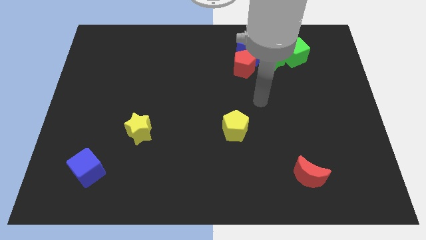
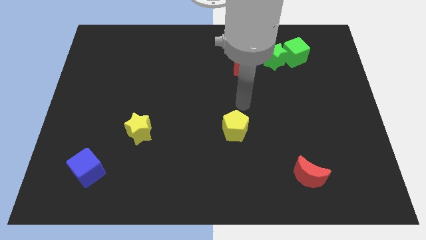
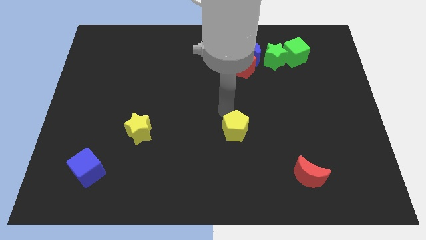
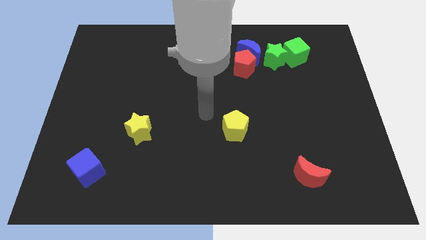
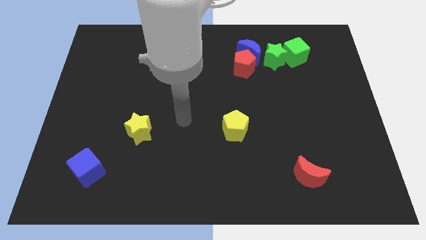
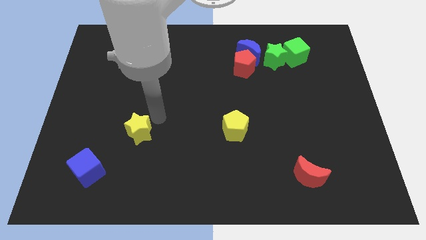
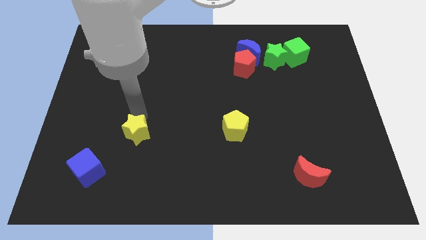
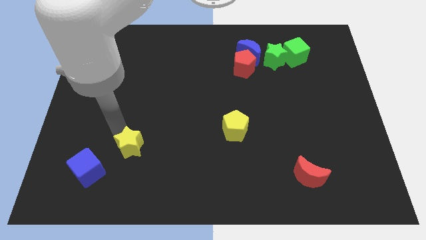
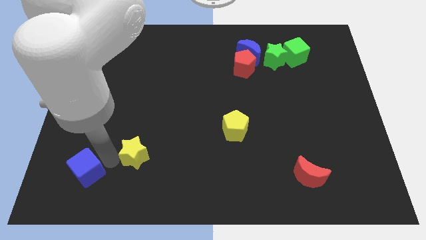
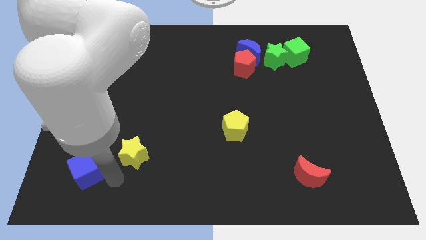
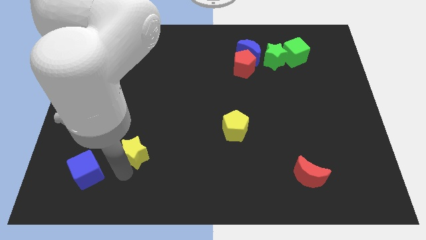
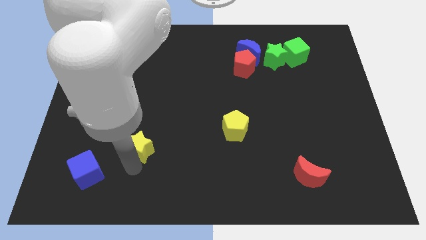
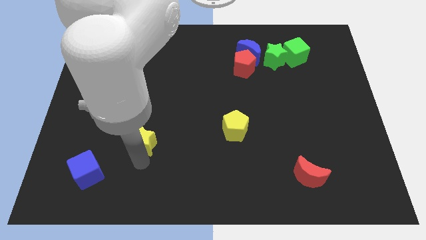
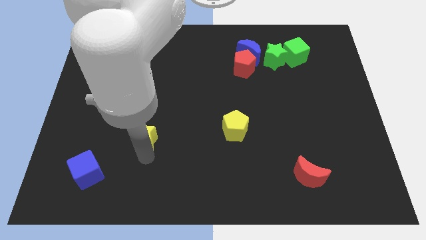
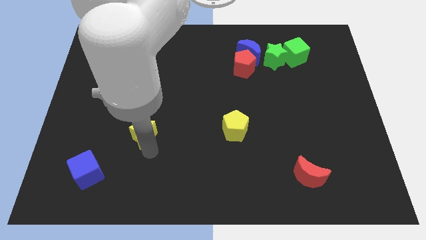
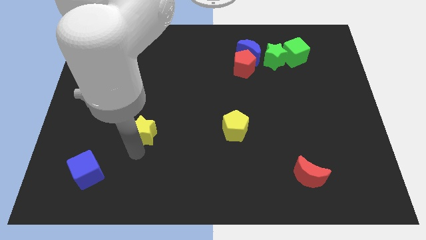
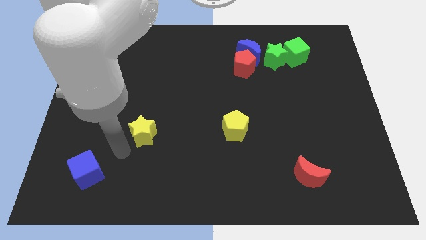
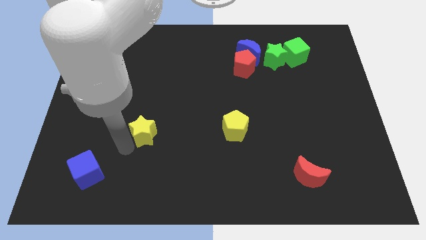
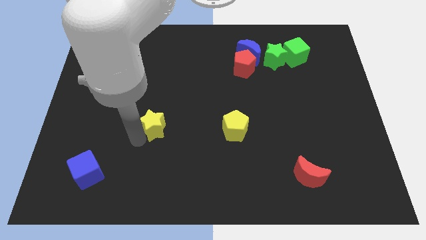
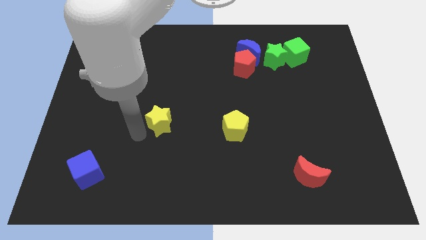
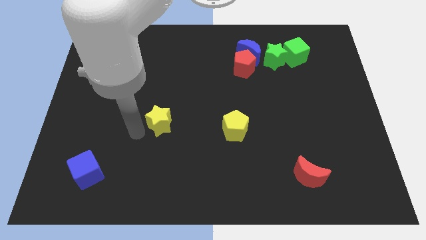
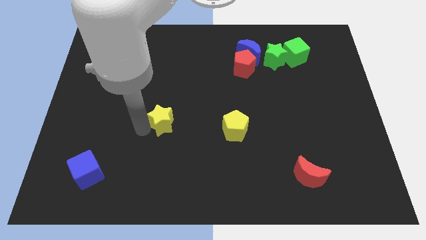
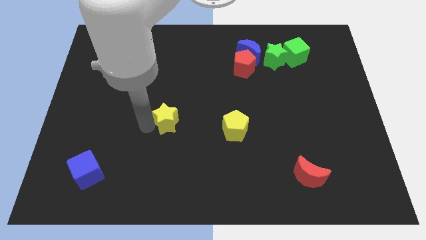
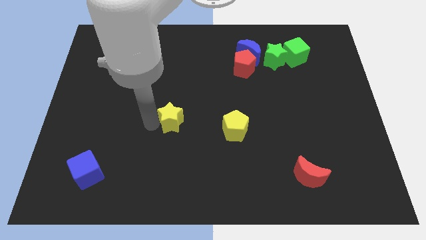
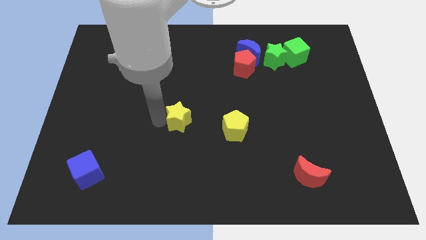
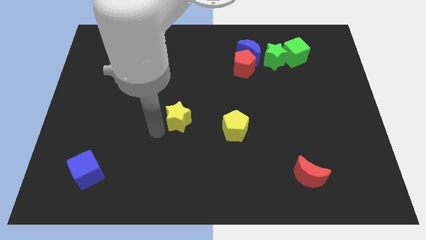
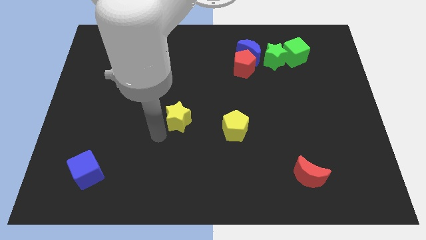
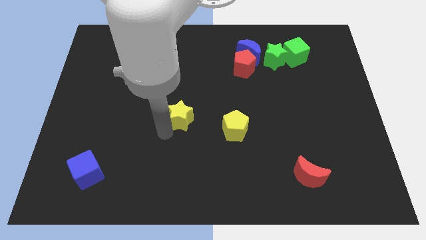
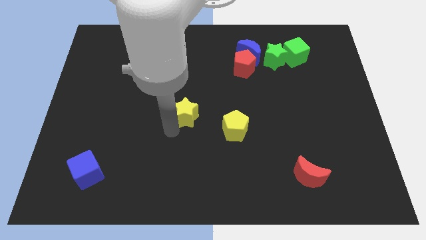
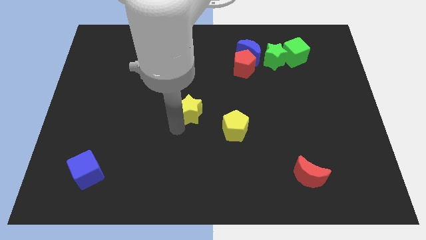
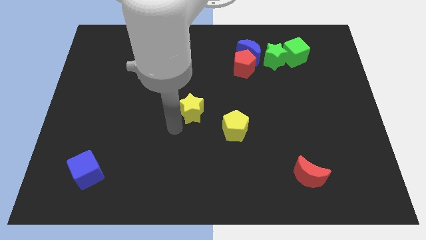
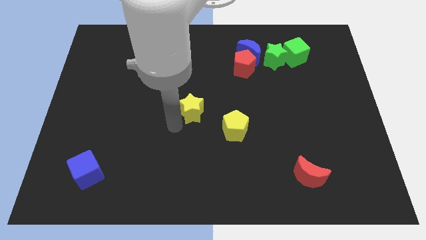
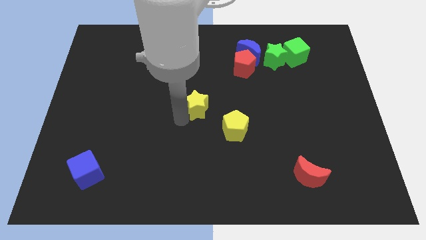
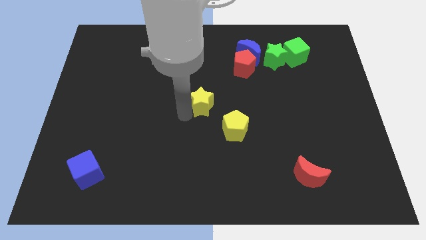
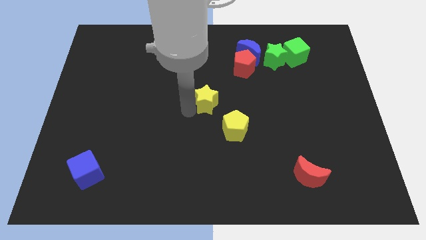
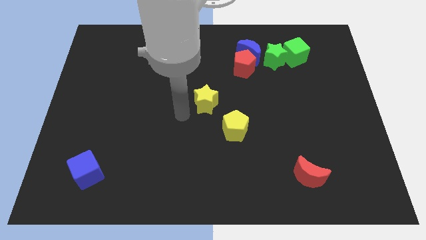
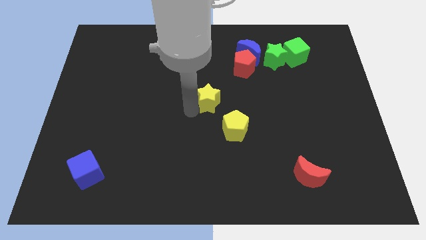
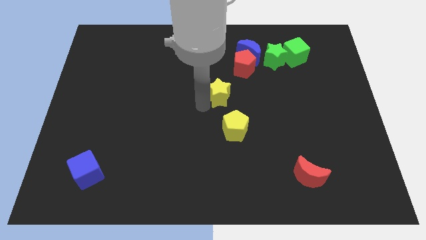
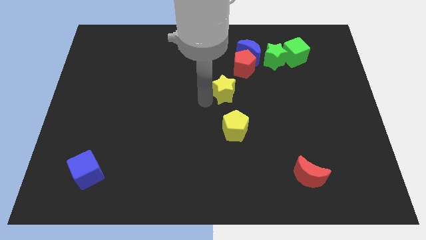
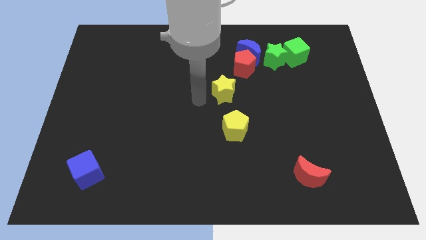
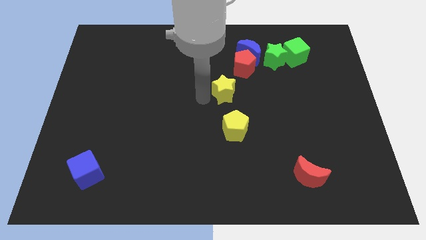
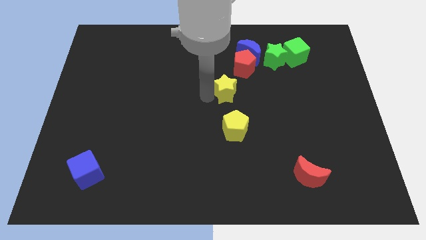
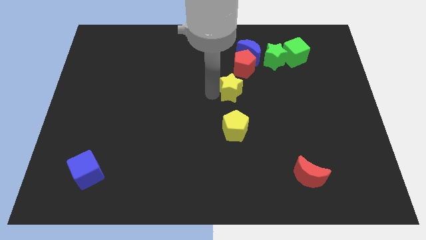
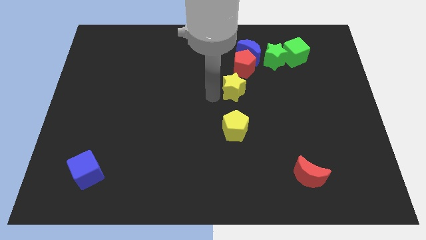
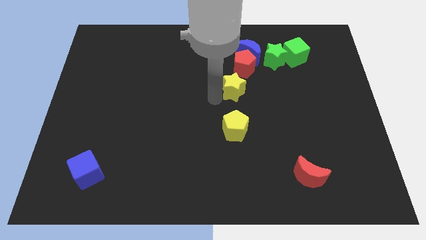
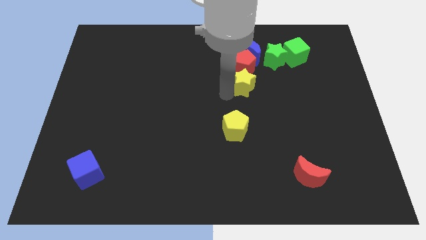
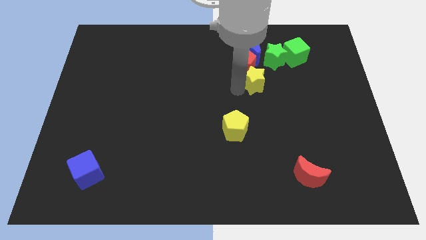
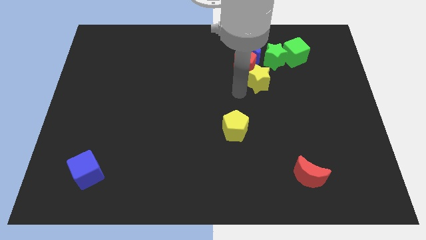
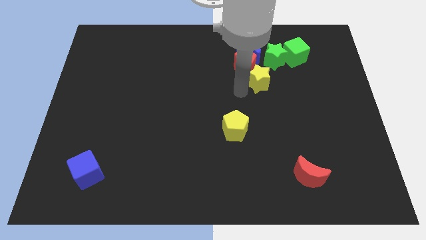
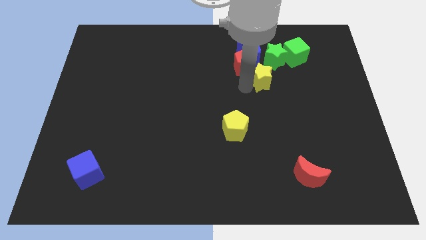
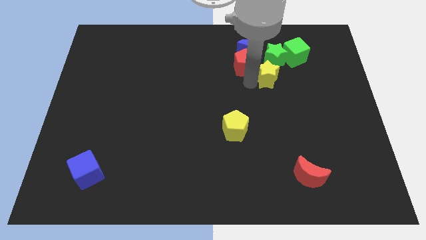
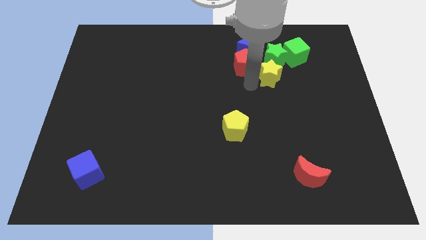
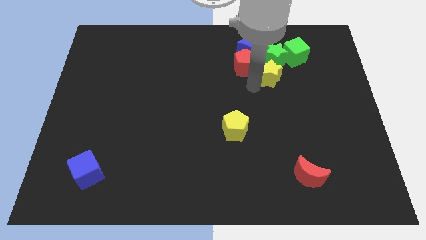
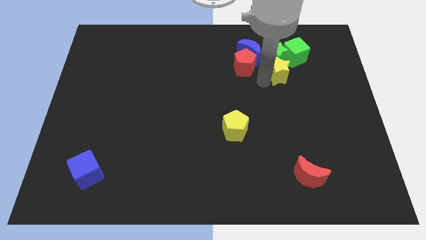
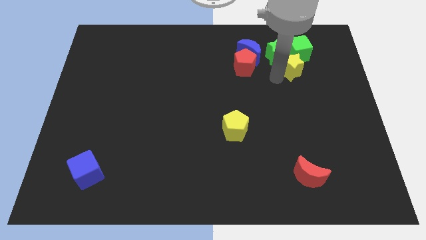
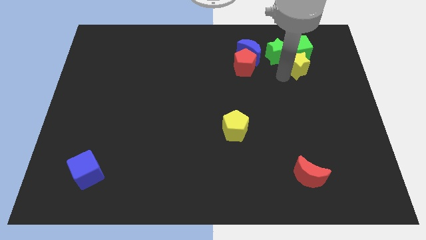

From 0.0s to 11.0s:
push the yellow star next to the green cube

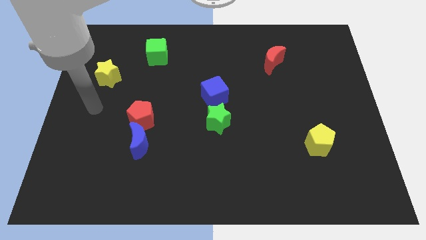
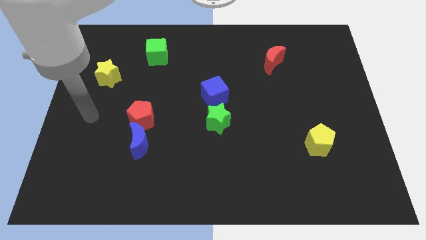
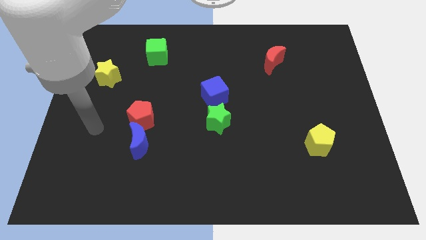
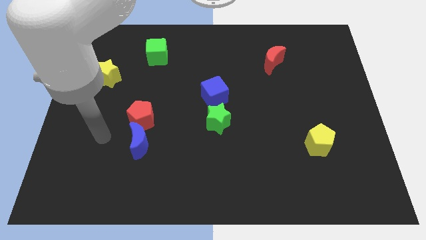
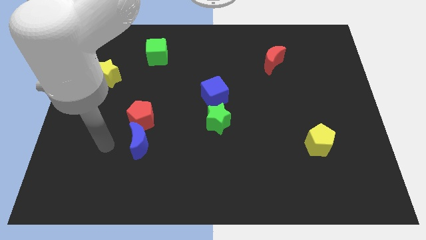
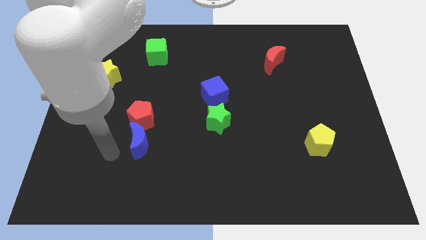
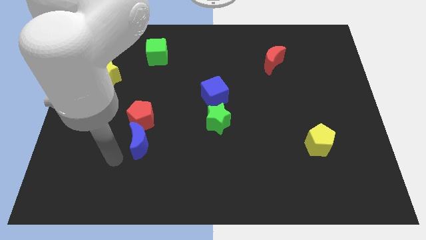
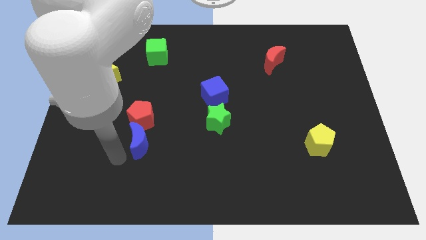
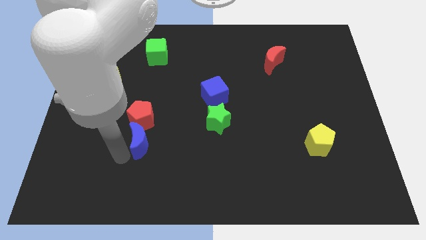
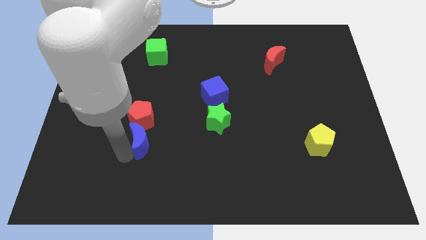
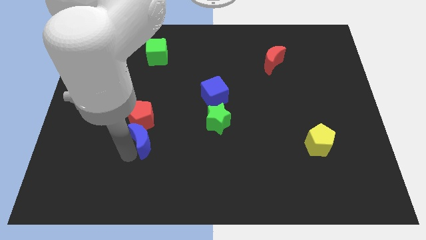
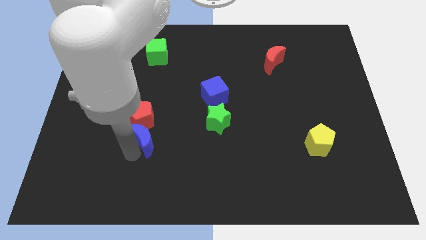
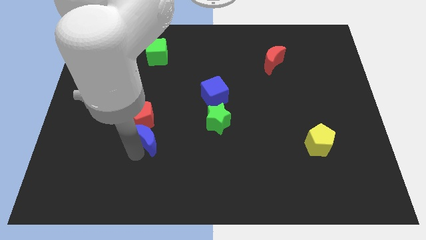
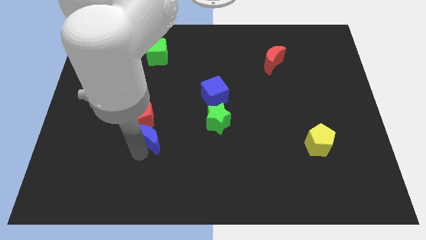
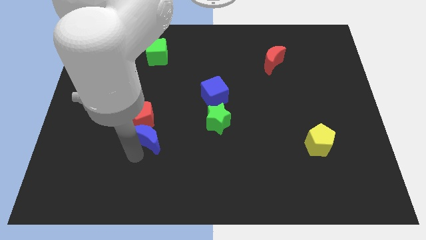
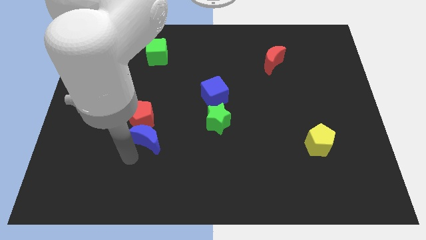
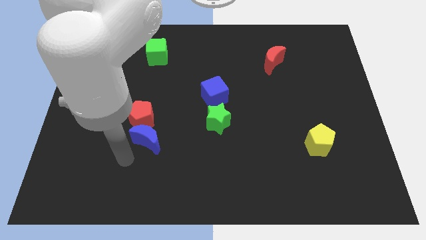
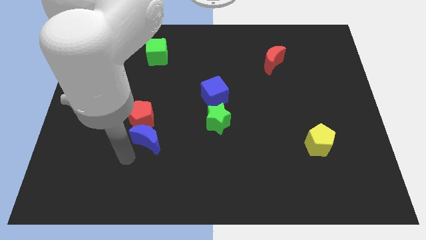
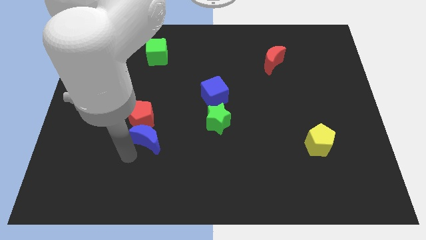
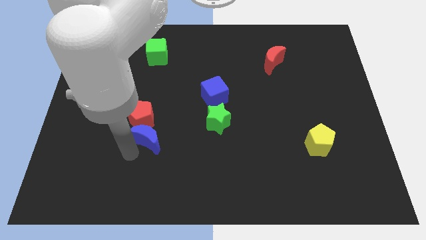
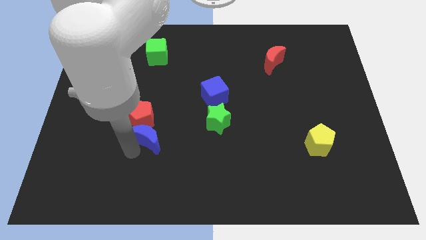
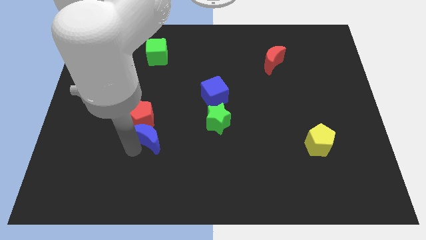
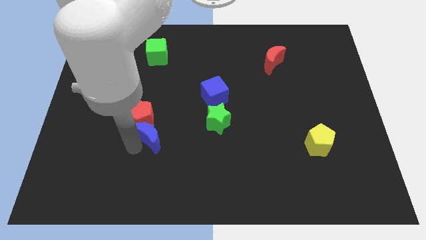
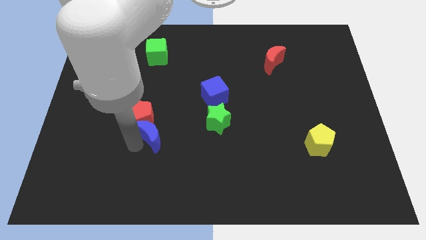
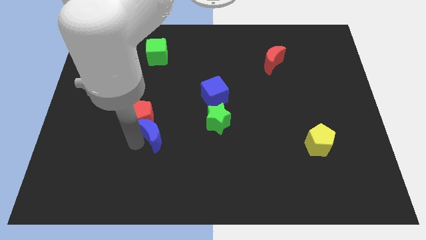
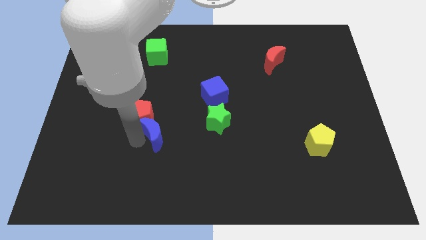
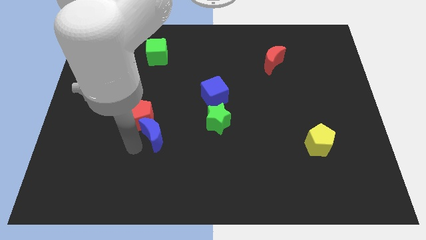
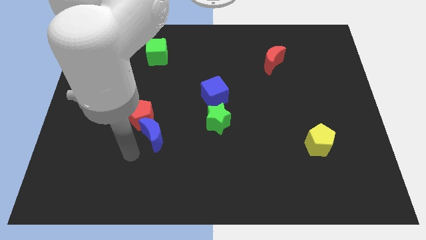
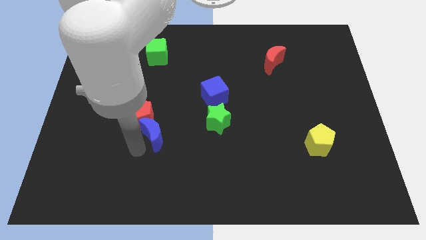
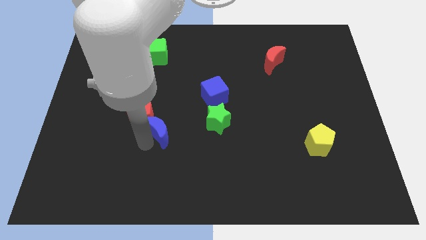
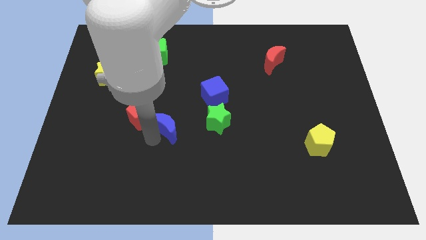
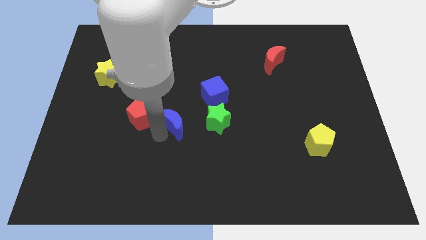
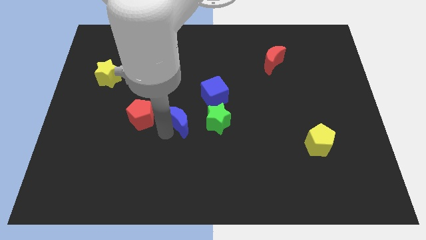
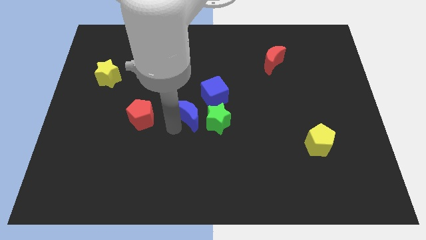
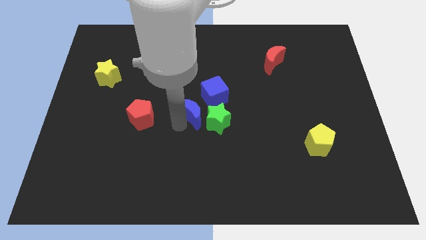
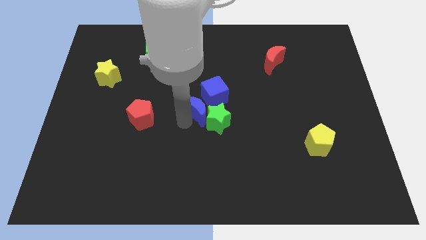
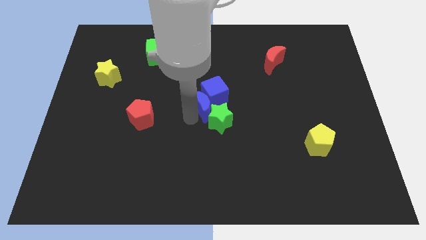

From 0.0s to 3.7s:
put the blue moon next to the blue cube
